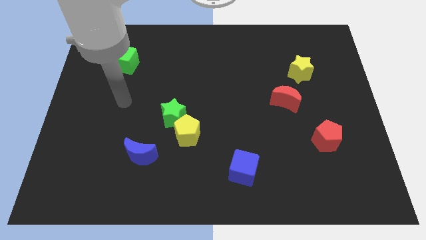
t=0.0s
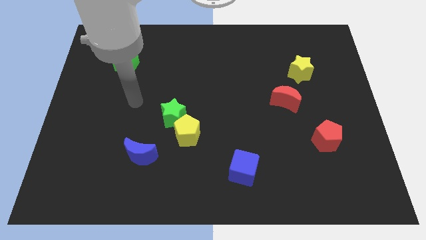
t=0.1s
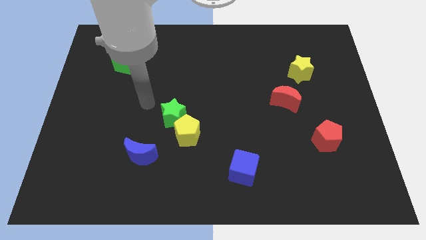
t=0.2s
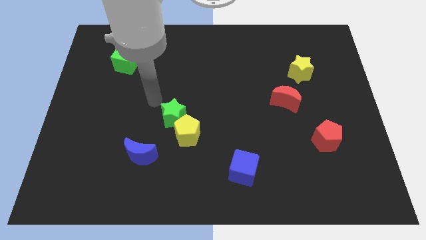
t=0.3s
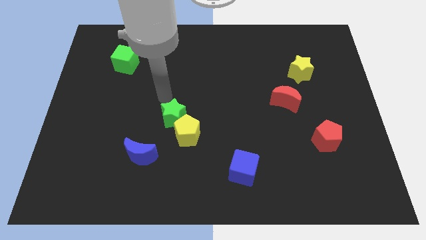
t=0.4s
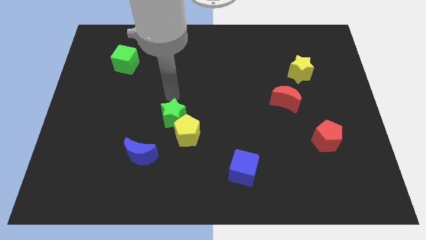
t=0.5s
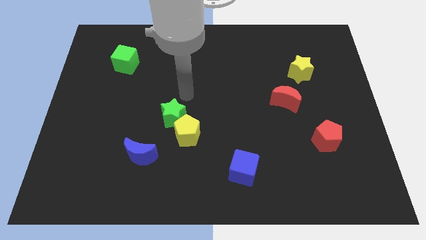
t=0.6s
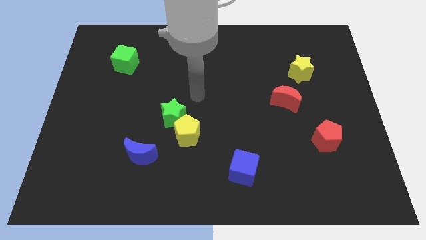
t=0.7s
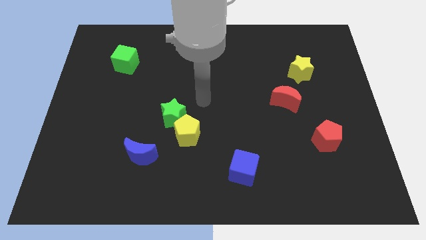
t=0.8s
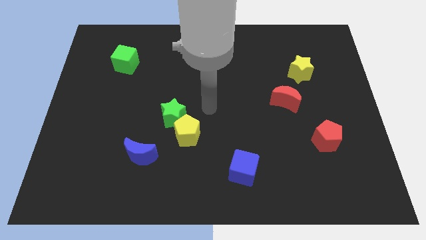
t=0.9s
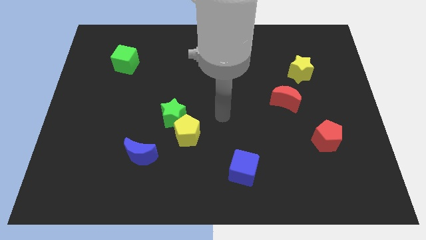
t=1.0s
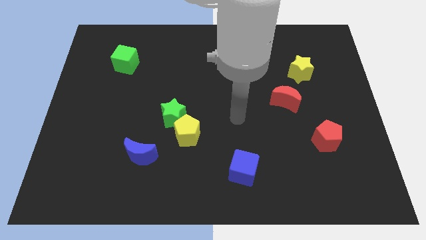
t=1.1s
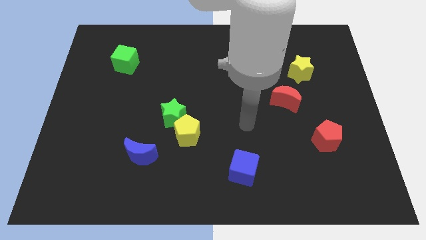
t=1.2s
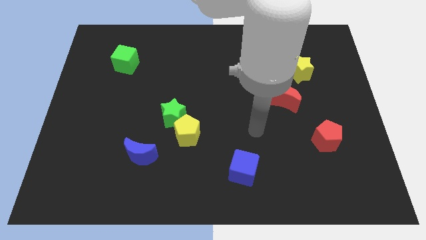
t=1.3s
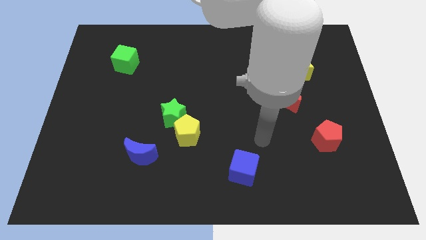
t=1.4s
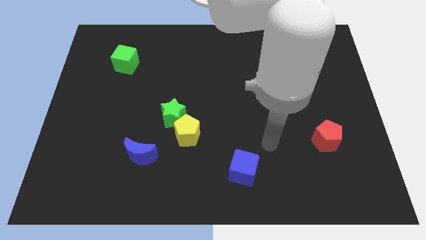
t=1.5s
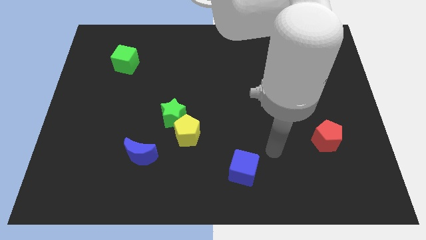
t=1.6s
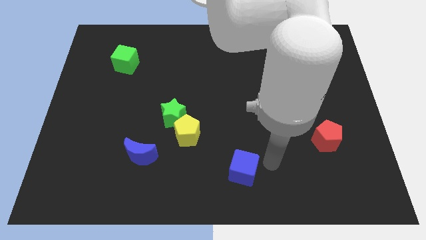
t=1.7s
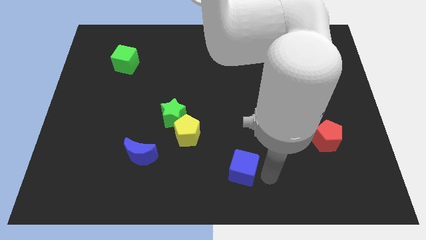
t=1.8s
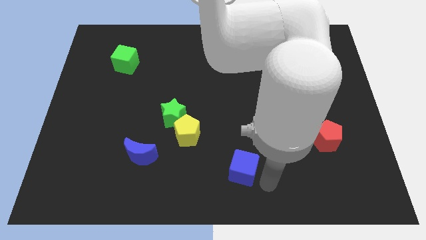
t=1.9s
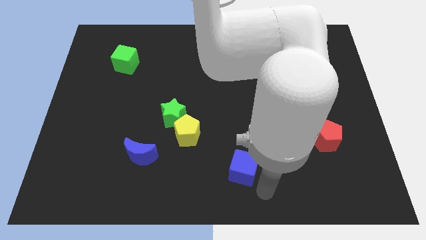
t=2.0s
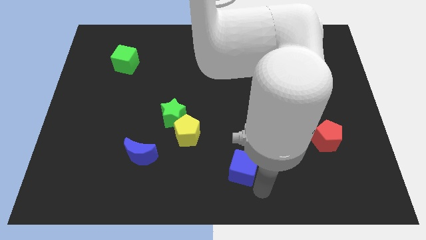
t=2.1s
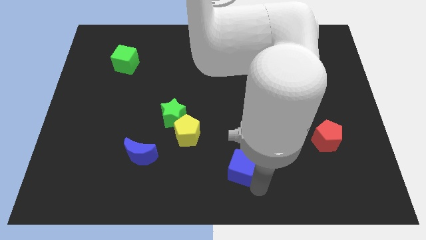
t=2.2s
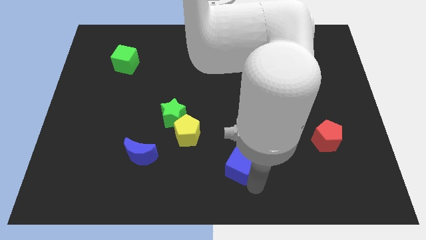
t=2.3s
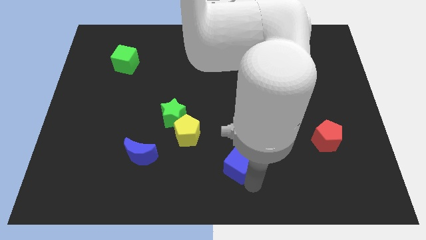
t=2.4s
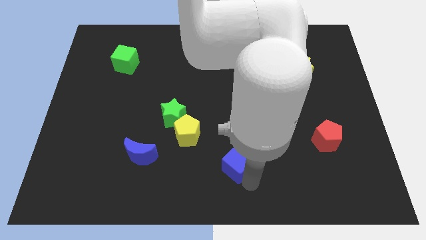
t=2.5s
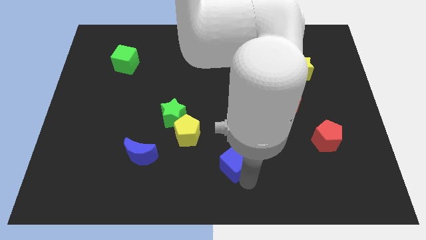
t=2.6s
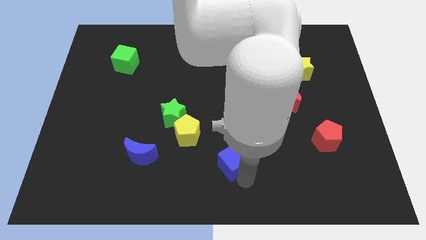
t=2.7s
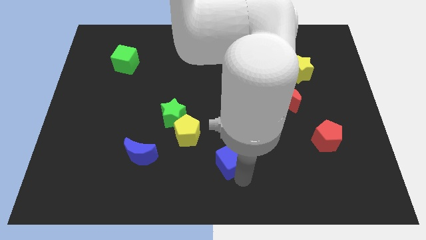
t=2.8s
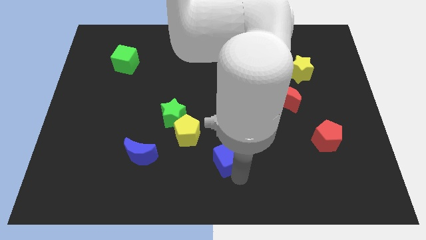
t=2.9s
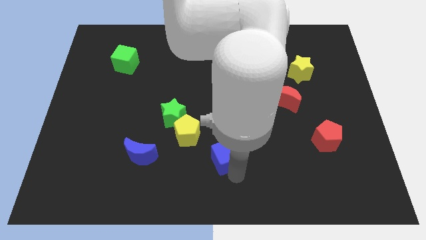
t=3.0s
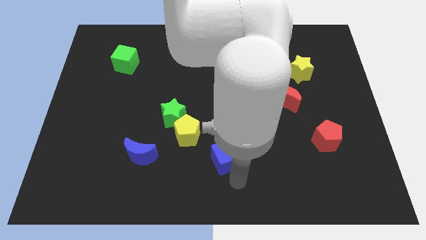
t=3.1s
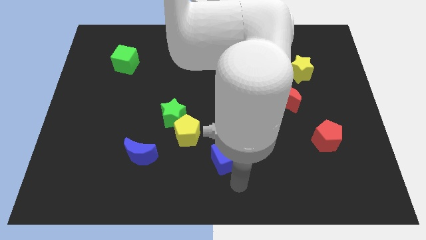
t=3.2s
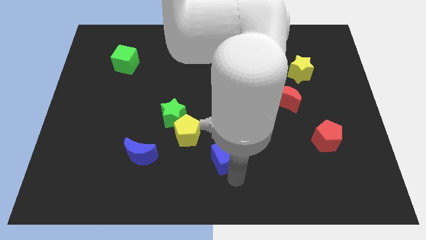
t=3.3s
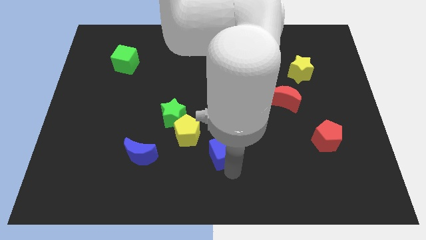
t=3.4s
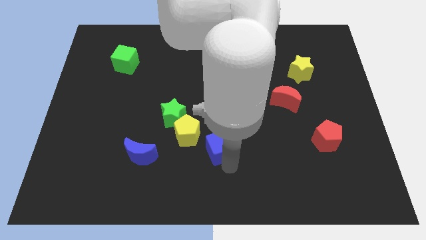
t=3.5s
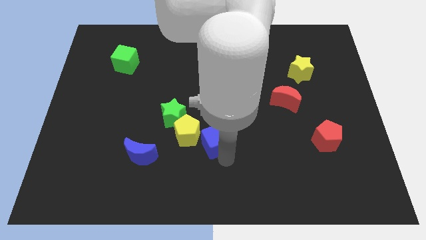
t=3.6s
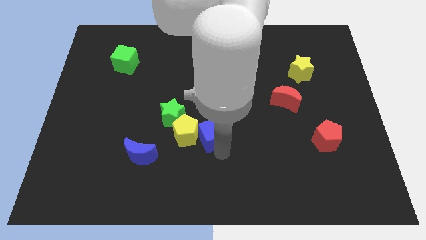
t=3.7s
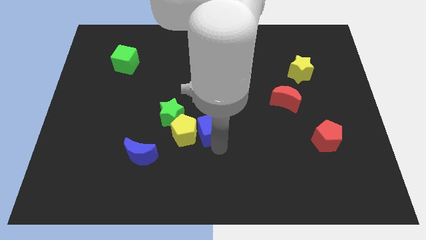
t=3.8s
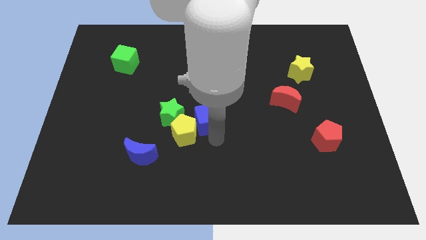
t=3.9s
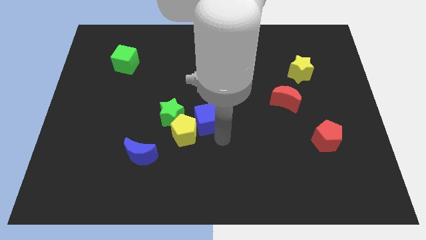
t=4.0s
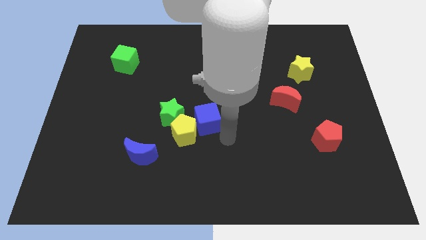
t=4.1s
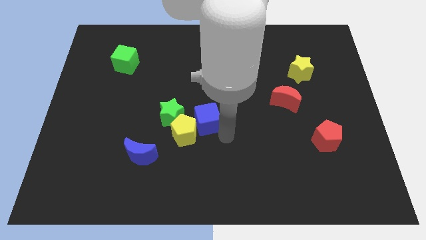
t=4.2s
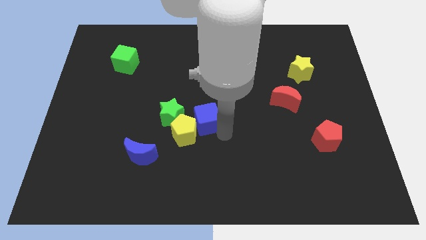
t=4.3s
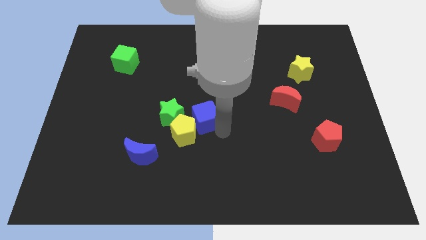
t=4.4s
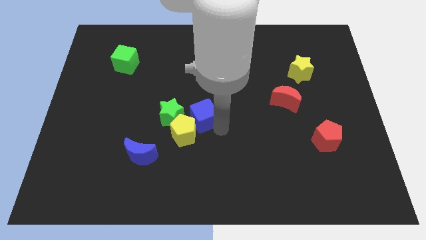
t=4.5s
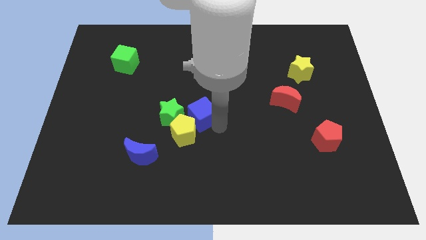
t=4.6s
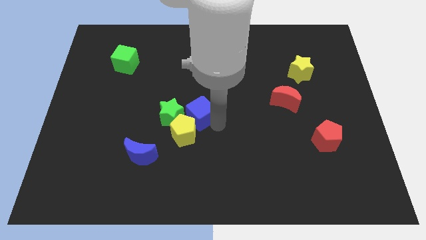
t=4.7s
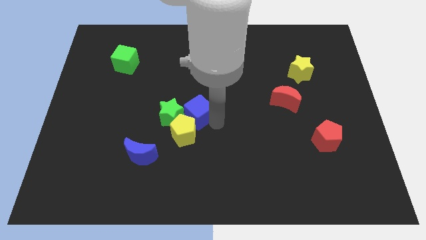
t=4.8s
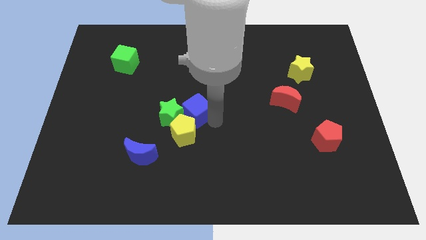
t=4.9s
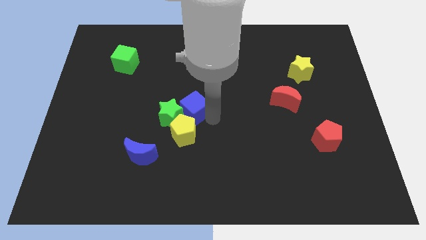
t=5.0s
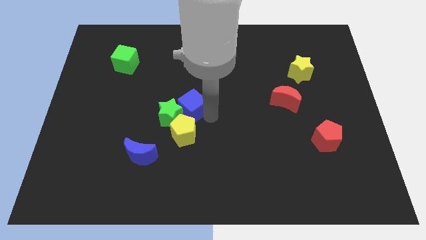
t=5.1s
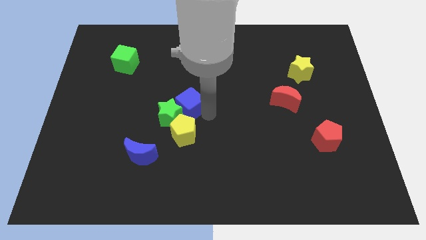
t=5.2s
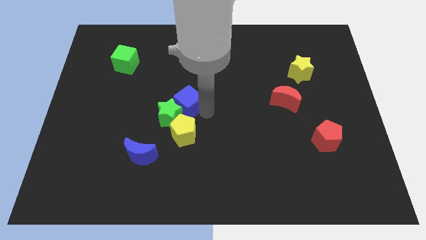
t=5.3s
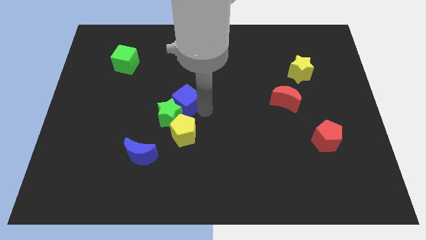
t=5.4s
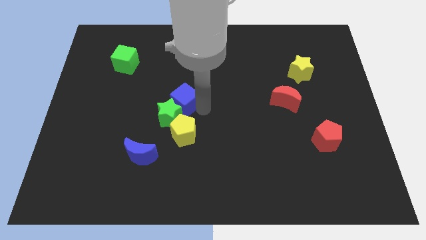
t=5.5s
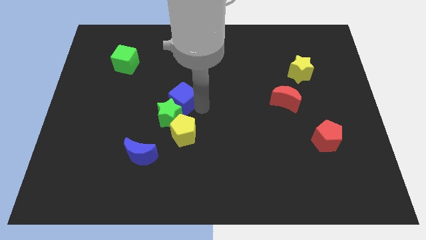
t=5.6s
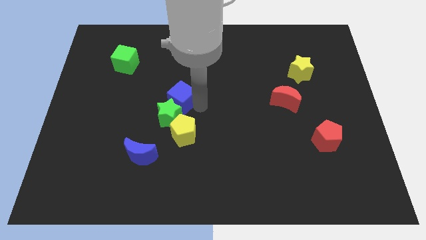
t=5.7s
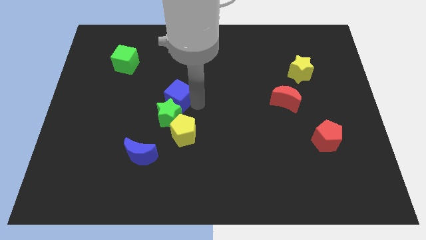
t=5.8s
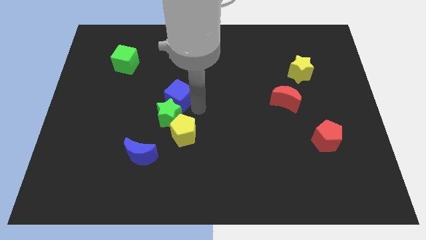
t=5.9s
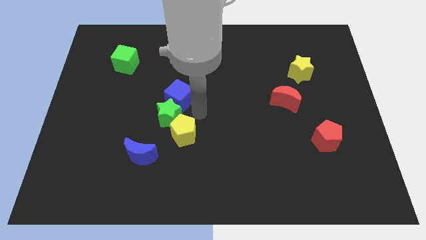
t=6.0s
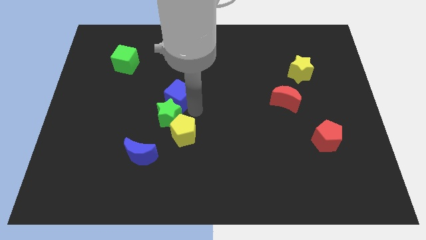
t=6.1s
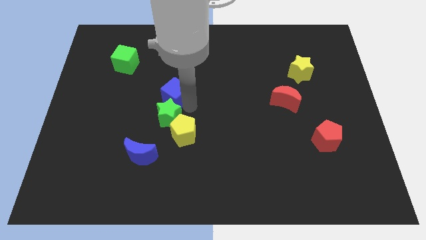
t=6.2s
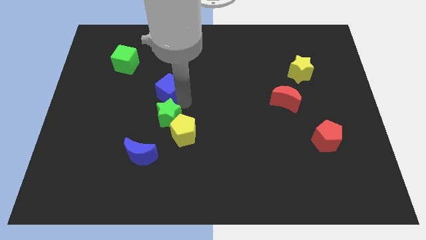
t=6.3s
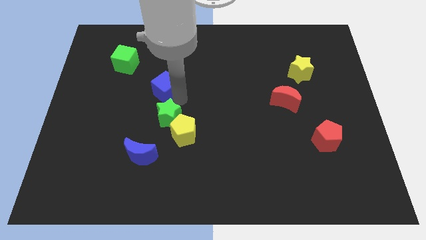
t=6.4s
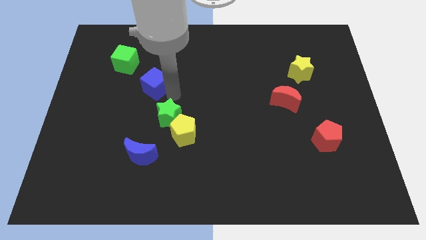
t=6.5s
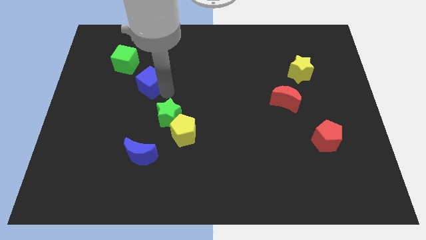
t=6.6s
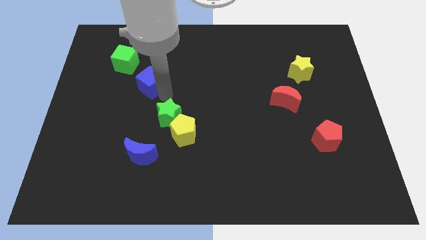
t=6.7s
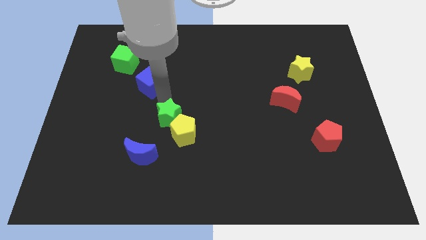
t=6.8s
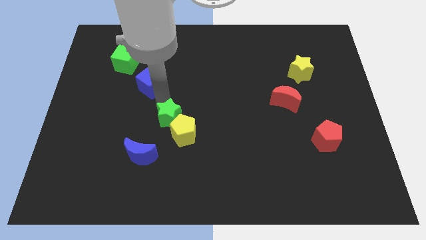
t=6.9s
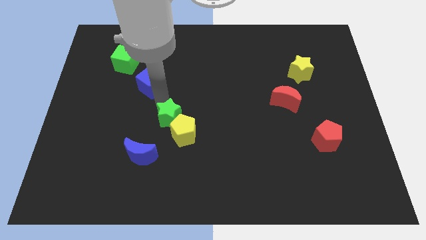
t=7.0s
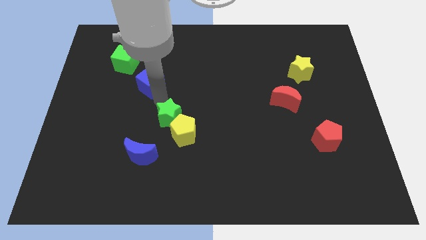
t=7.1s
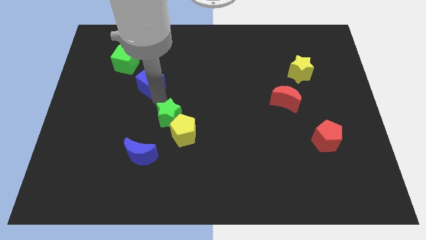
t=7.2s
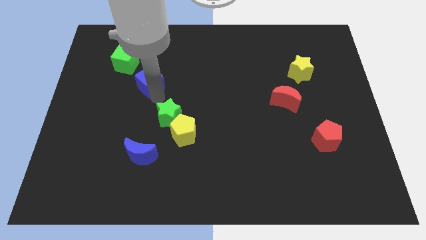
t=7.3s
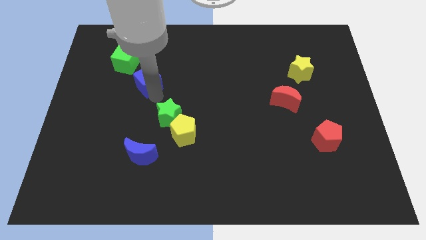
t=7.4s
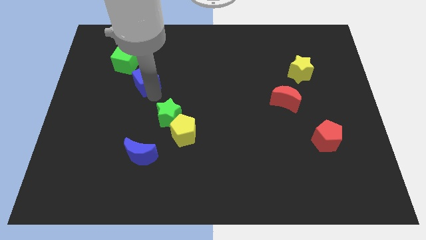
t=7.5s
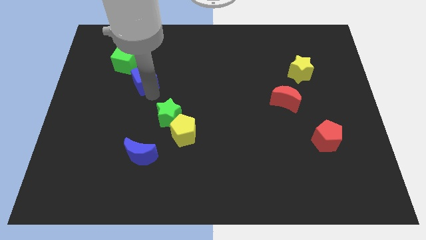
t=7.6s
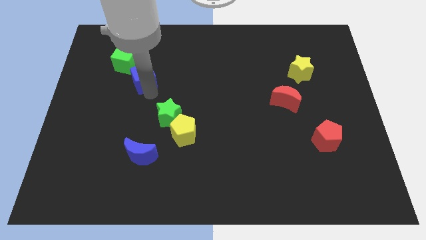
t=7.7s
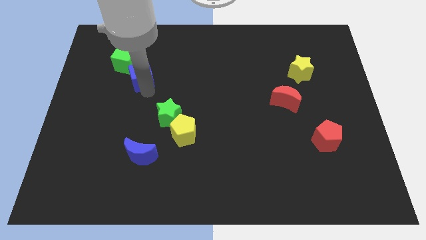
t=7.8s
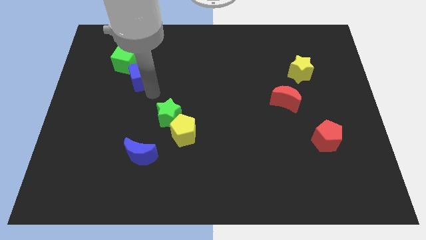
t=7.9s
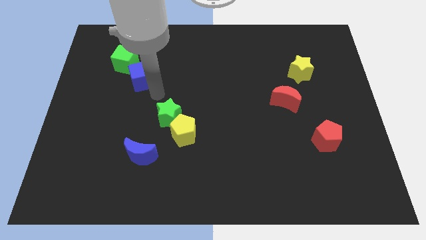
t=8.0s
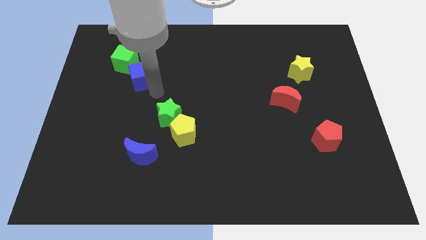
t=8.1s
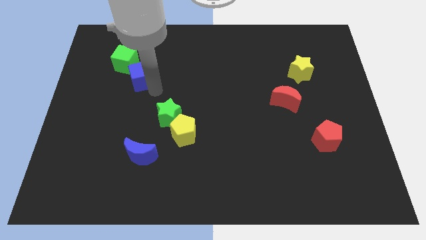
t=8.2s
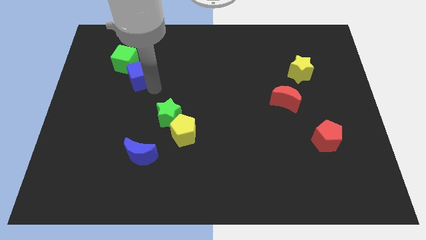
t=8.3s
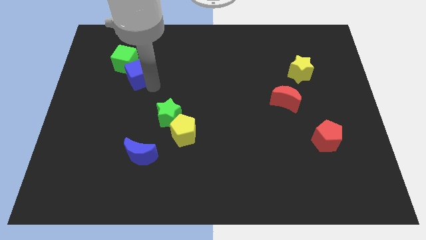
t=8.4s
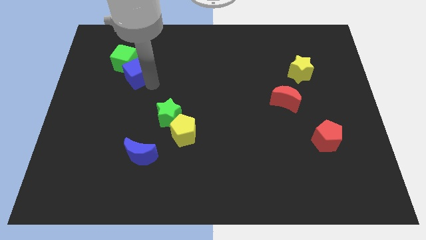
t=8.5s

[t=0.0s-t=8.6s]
move the blue cube towards the green cube
